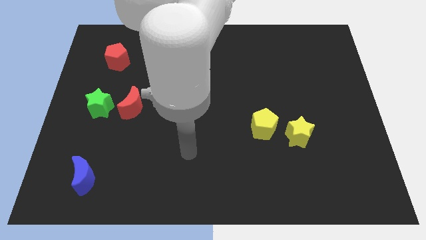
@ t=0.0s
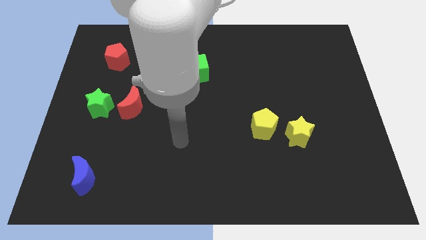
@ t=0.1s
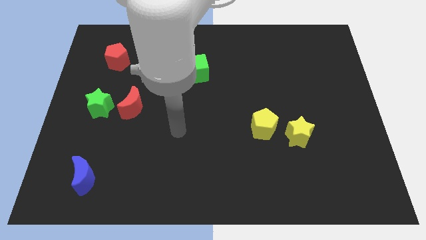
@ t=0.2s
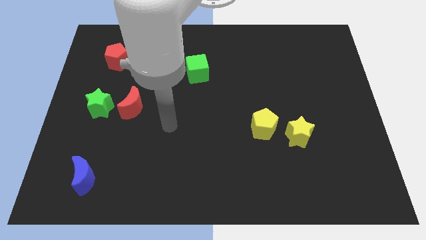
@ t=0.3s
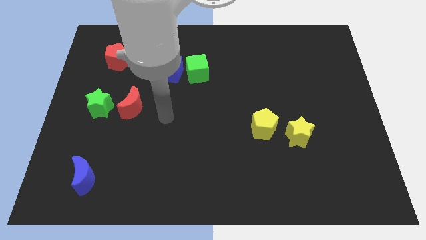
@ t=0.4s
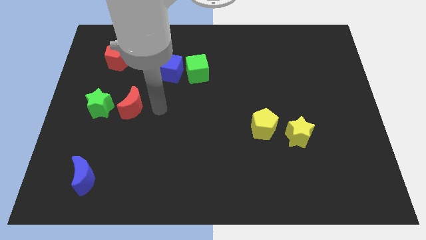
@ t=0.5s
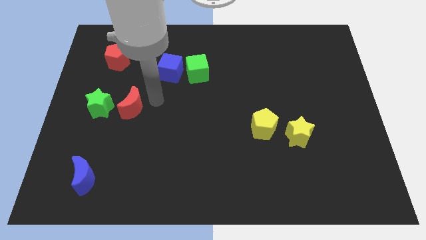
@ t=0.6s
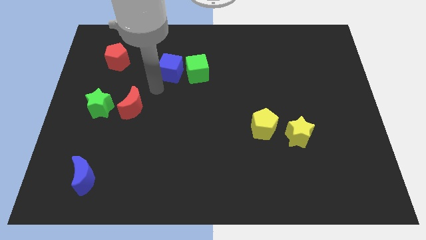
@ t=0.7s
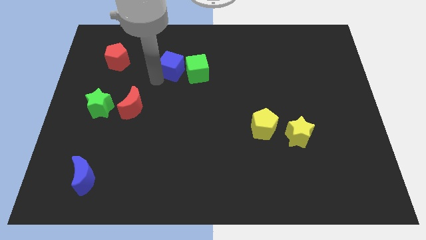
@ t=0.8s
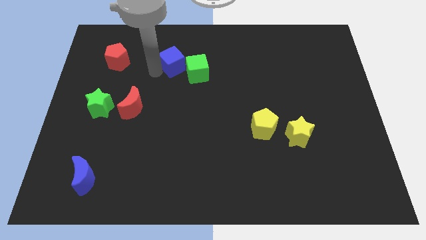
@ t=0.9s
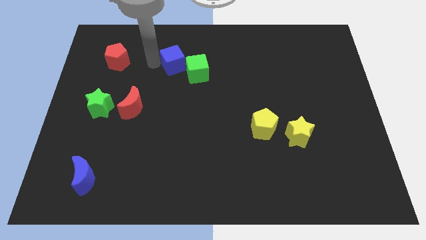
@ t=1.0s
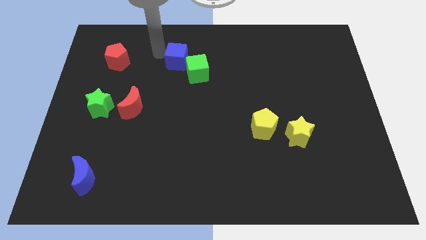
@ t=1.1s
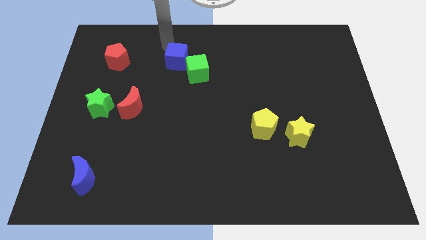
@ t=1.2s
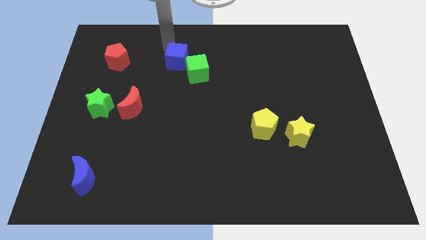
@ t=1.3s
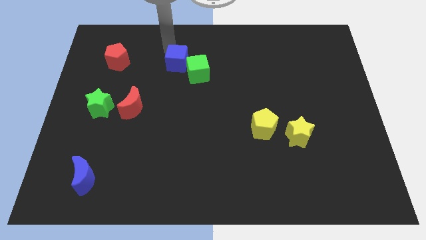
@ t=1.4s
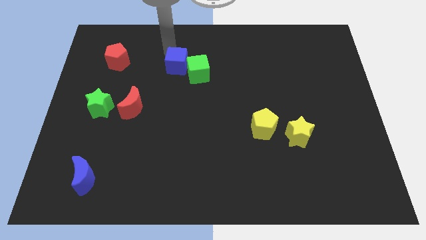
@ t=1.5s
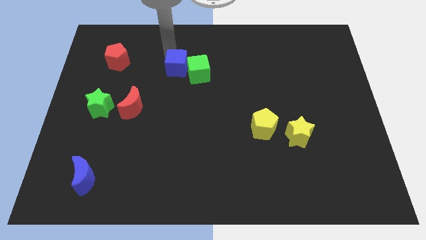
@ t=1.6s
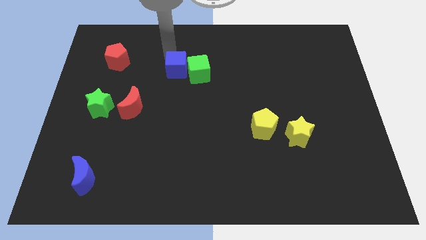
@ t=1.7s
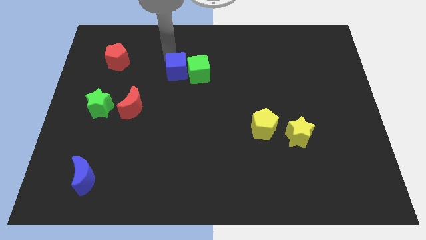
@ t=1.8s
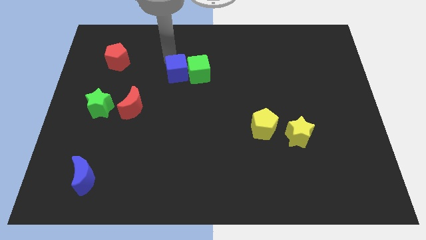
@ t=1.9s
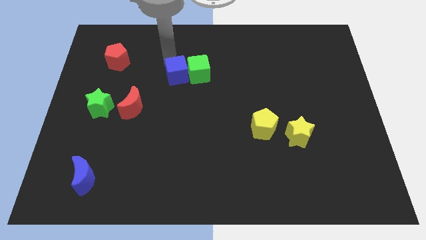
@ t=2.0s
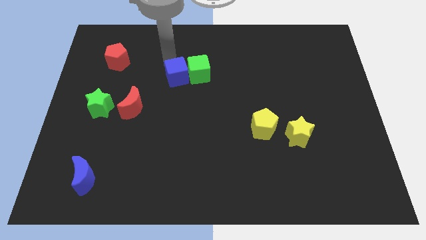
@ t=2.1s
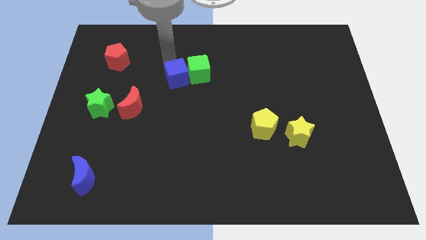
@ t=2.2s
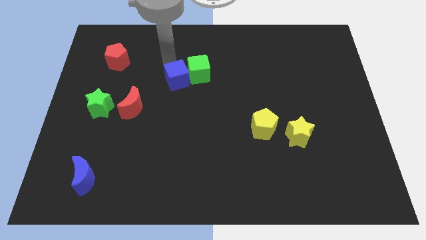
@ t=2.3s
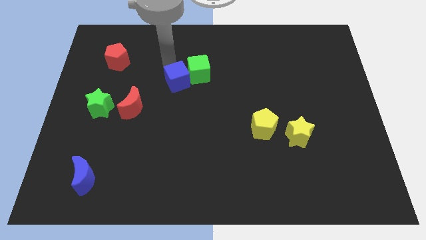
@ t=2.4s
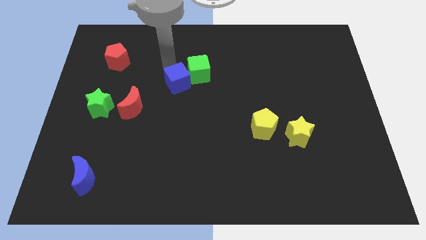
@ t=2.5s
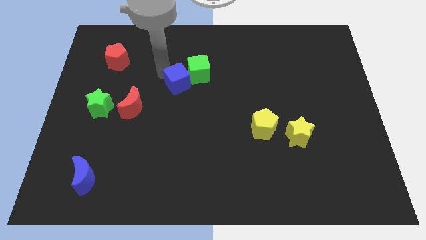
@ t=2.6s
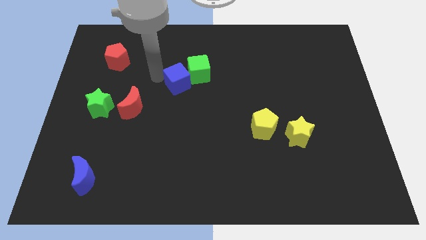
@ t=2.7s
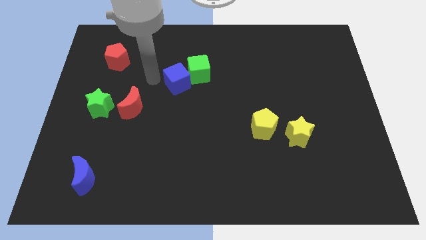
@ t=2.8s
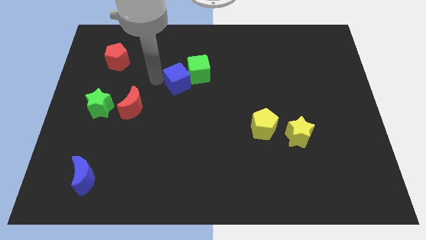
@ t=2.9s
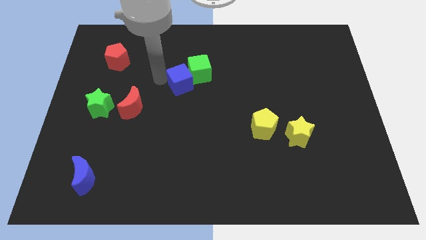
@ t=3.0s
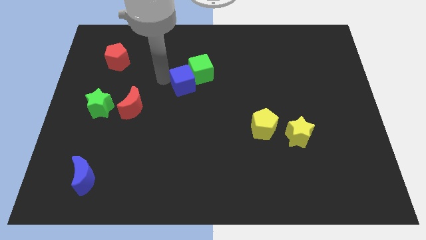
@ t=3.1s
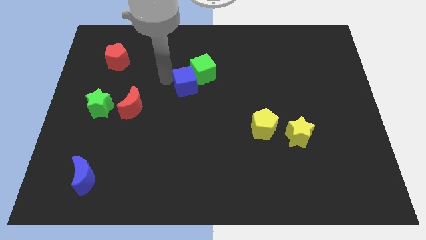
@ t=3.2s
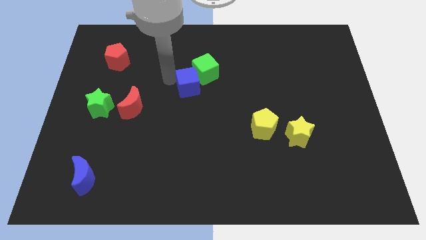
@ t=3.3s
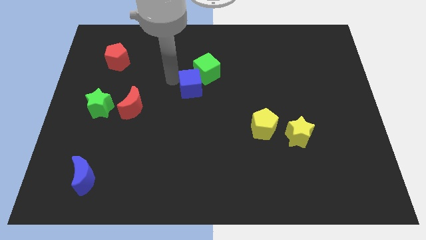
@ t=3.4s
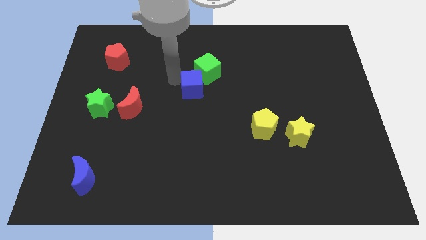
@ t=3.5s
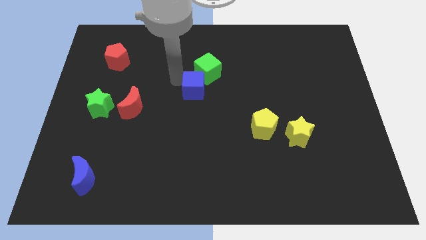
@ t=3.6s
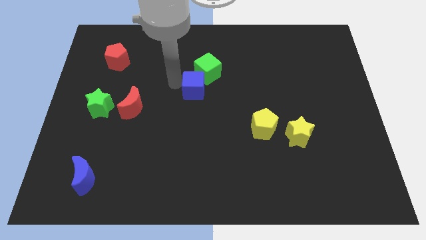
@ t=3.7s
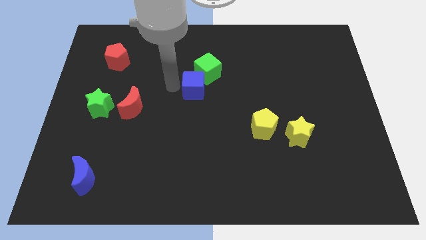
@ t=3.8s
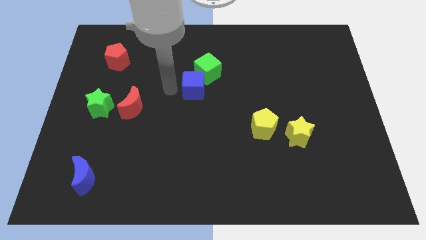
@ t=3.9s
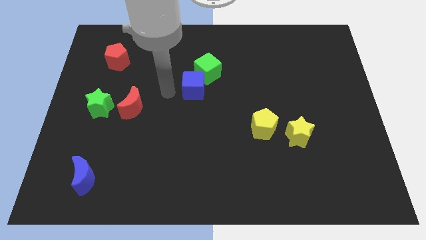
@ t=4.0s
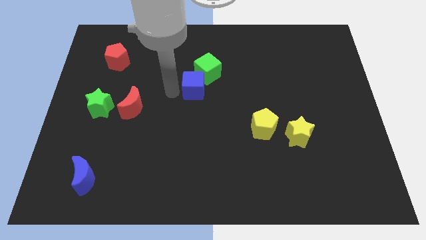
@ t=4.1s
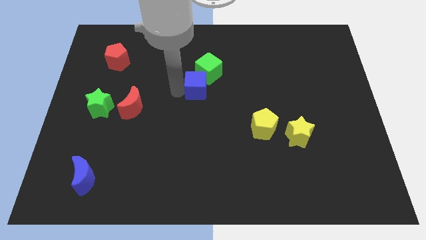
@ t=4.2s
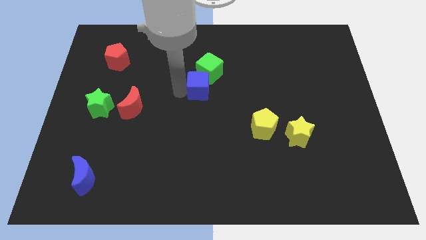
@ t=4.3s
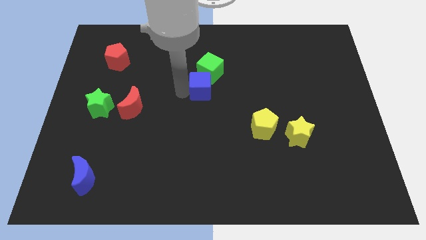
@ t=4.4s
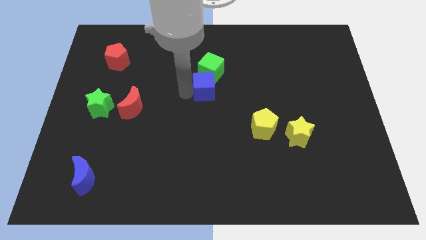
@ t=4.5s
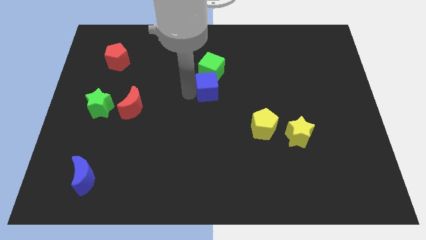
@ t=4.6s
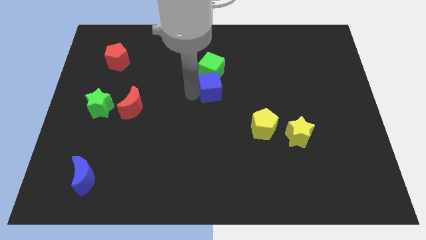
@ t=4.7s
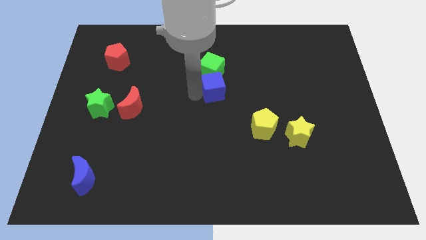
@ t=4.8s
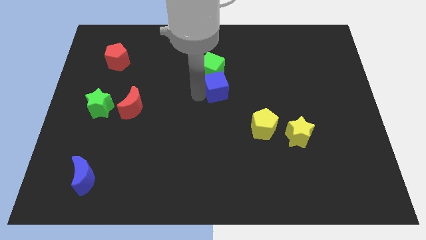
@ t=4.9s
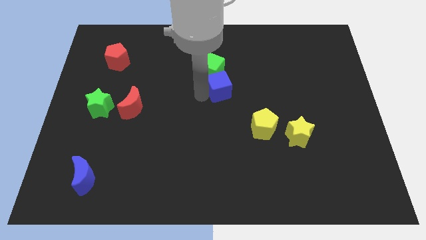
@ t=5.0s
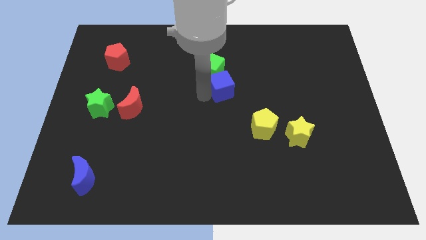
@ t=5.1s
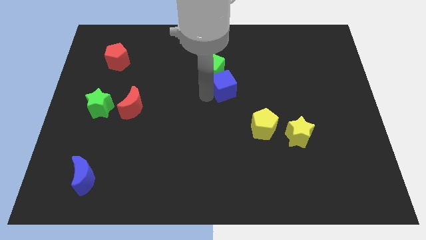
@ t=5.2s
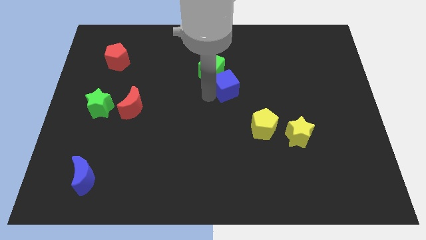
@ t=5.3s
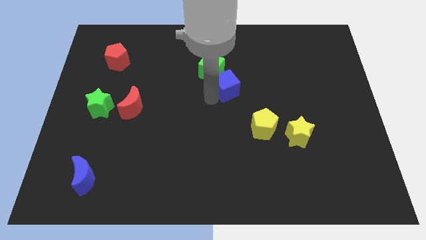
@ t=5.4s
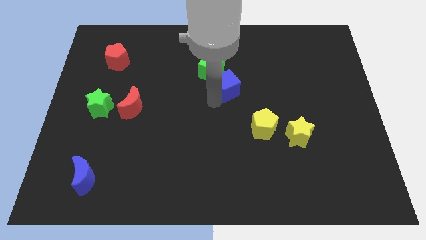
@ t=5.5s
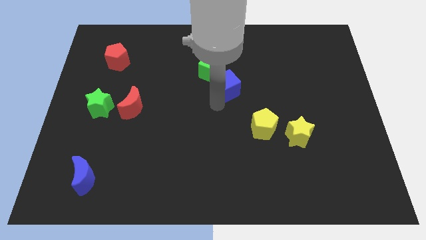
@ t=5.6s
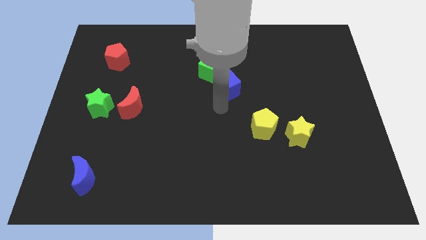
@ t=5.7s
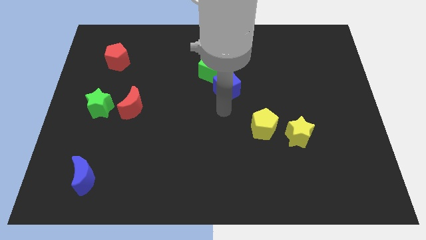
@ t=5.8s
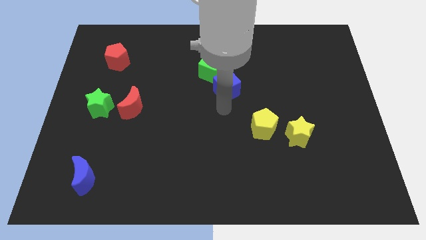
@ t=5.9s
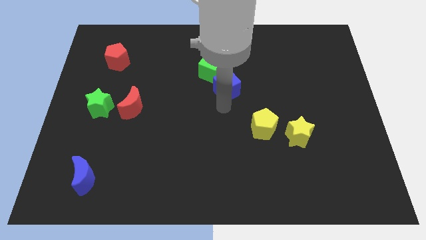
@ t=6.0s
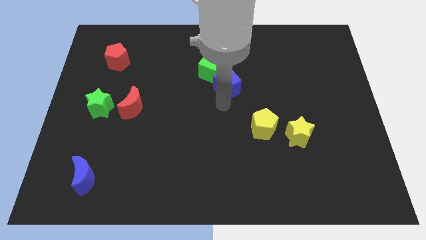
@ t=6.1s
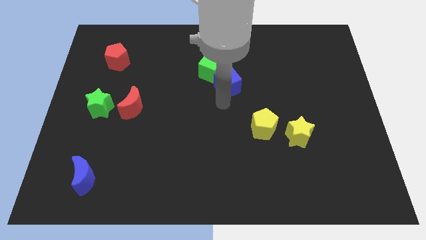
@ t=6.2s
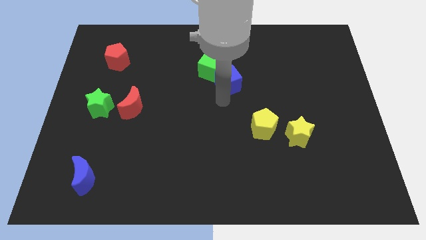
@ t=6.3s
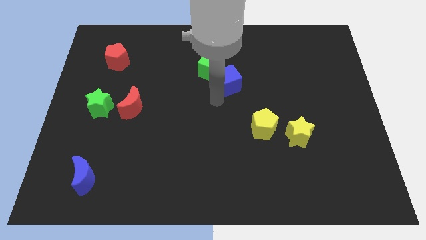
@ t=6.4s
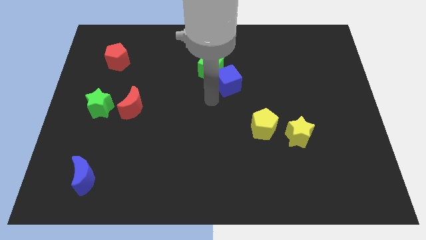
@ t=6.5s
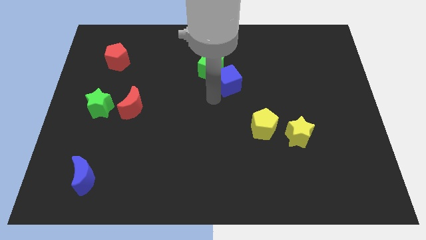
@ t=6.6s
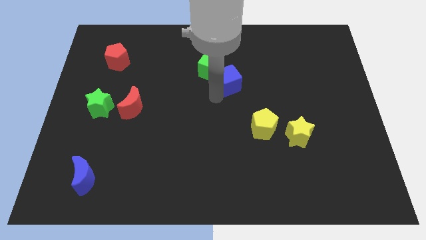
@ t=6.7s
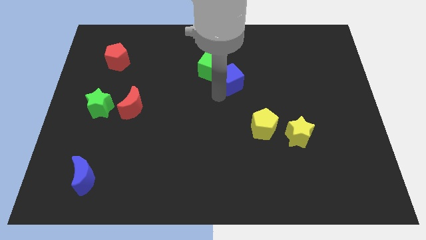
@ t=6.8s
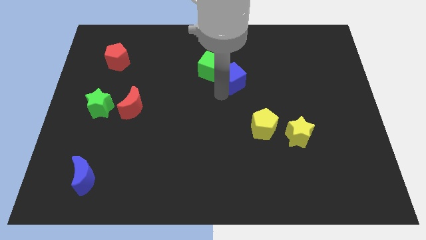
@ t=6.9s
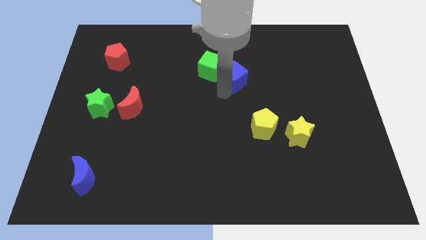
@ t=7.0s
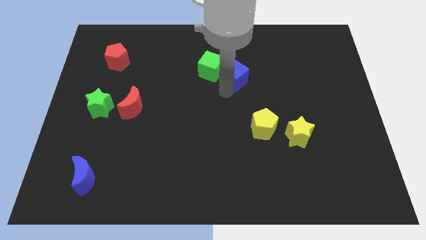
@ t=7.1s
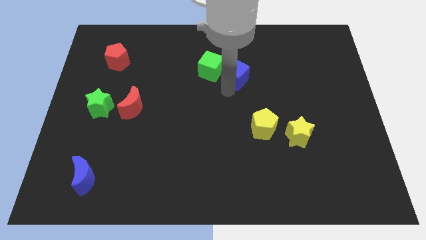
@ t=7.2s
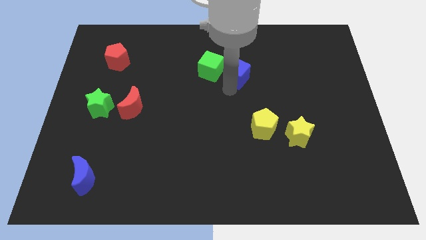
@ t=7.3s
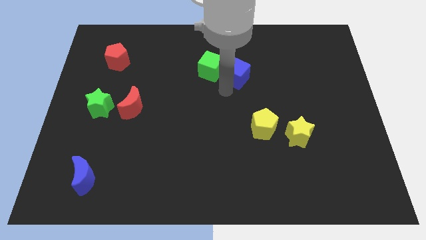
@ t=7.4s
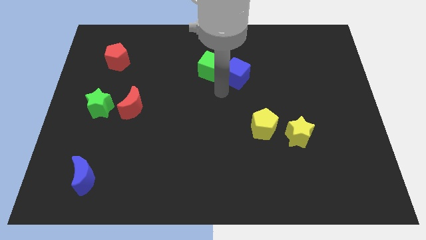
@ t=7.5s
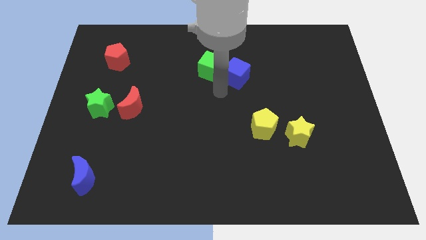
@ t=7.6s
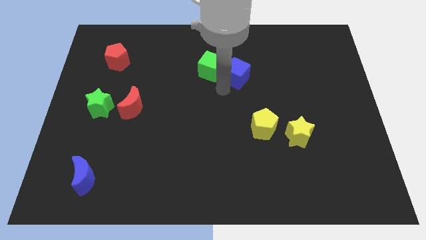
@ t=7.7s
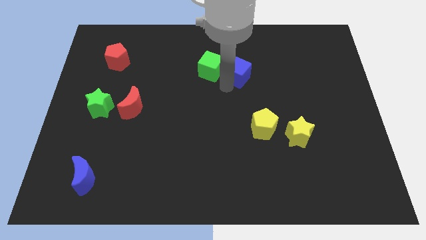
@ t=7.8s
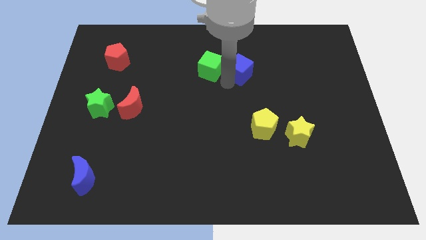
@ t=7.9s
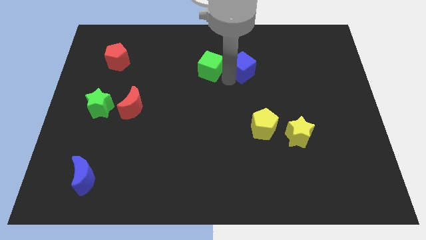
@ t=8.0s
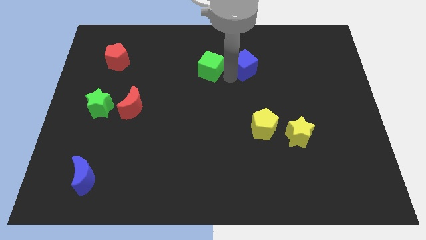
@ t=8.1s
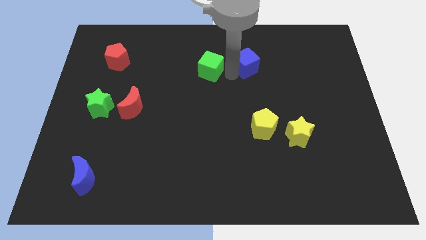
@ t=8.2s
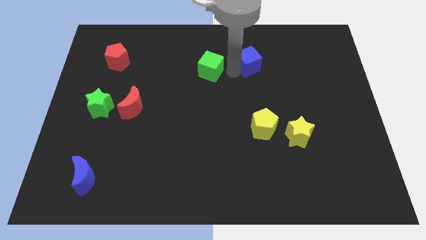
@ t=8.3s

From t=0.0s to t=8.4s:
slide the blue cube right
